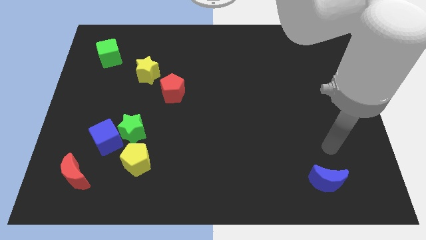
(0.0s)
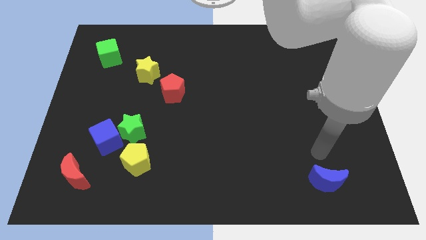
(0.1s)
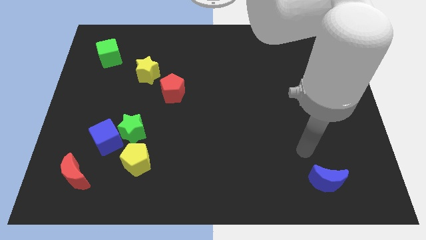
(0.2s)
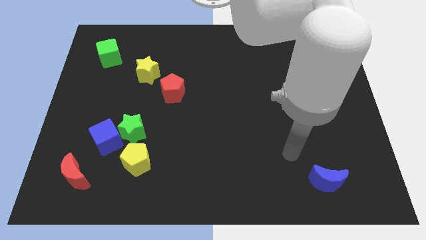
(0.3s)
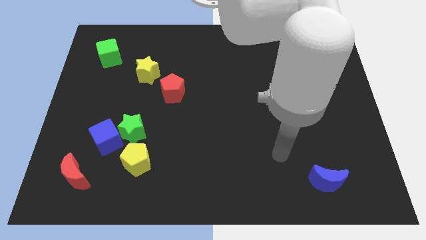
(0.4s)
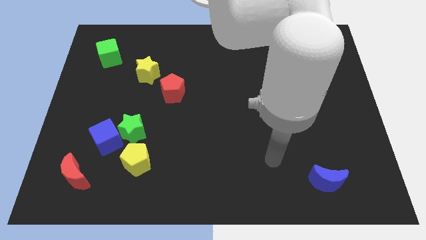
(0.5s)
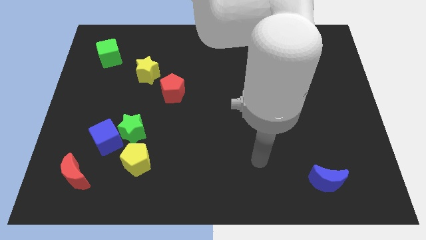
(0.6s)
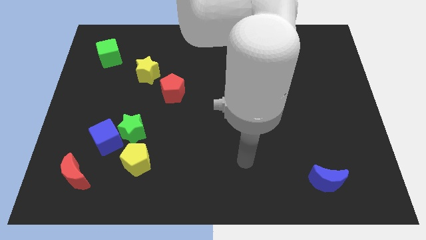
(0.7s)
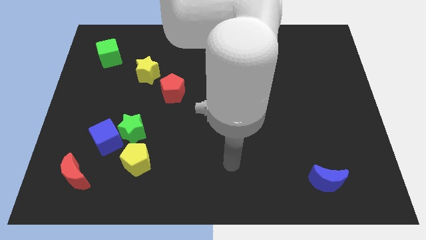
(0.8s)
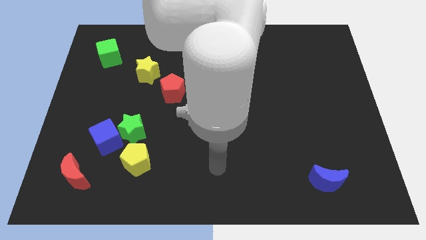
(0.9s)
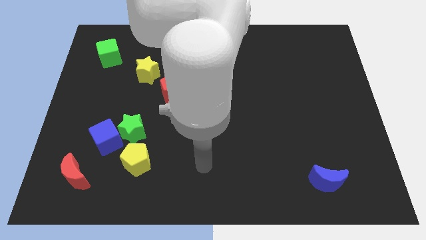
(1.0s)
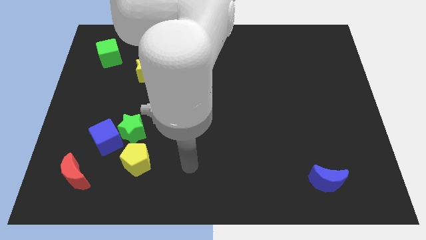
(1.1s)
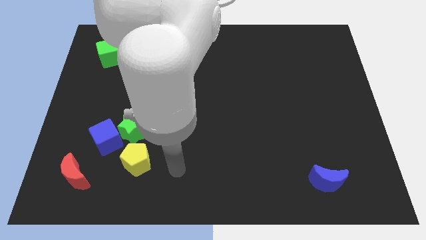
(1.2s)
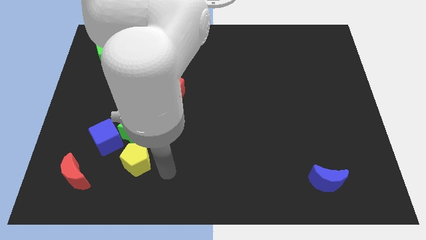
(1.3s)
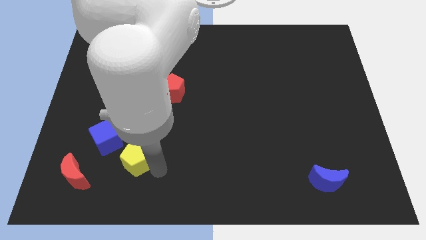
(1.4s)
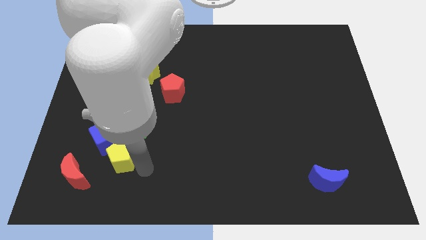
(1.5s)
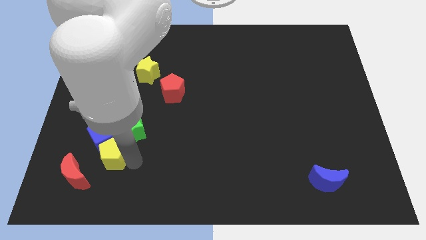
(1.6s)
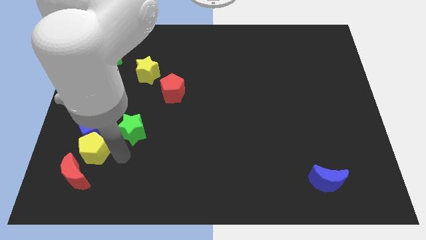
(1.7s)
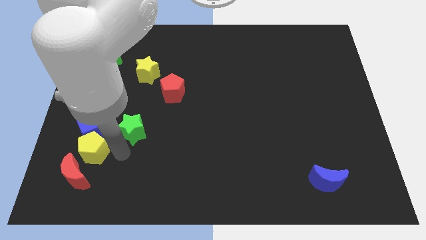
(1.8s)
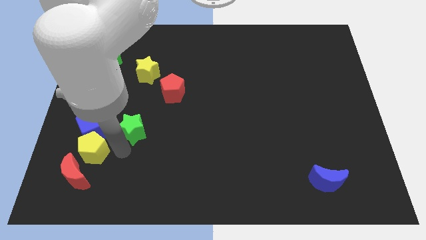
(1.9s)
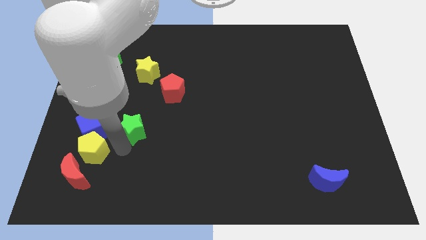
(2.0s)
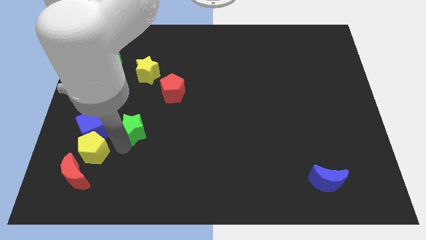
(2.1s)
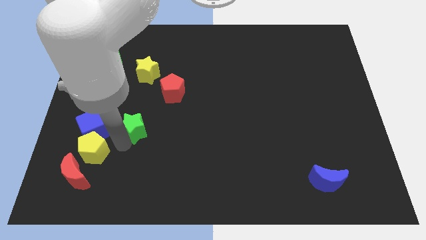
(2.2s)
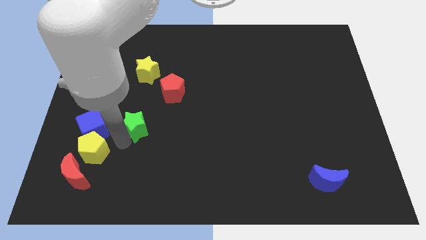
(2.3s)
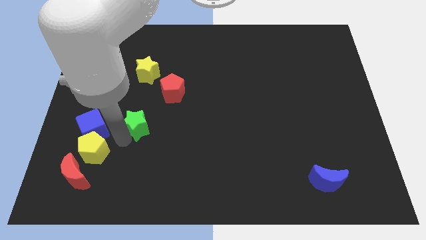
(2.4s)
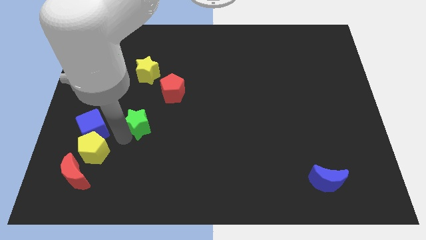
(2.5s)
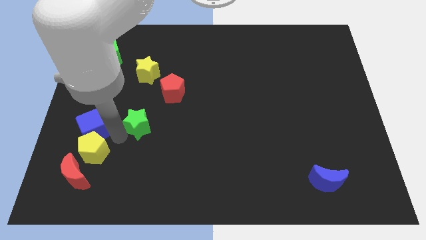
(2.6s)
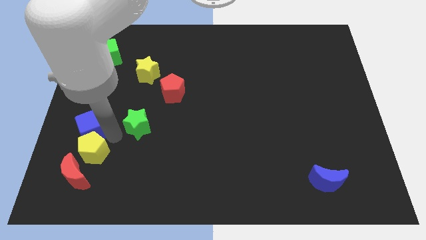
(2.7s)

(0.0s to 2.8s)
separate the green star from the blue cube and yellow pentagon

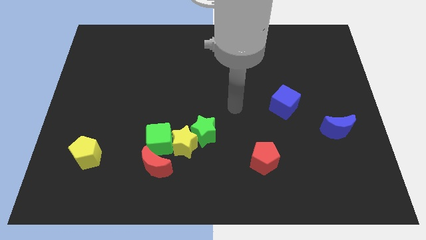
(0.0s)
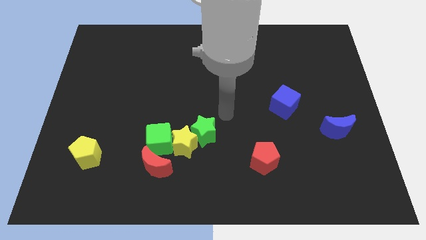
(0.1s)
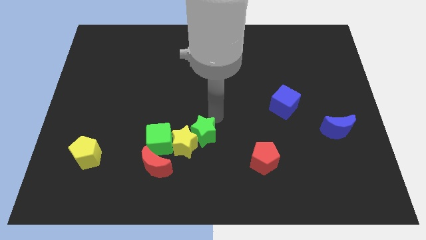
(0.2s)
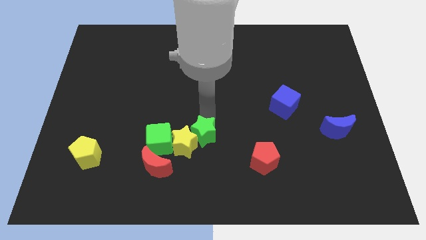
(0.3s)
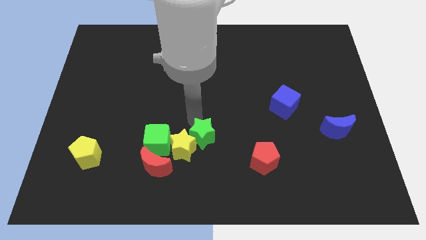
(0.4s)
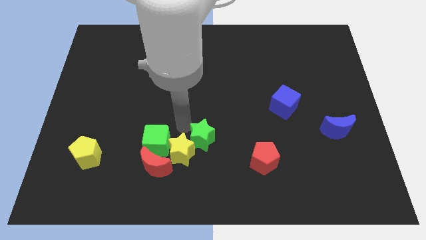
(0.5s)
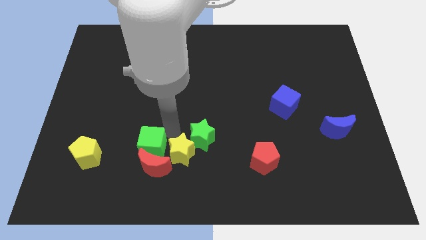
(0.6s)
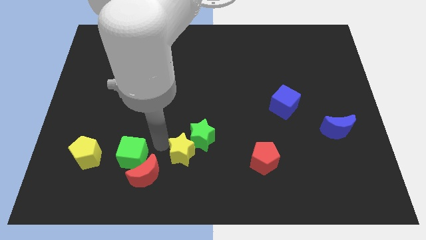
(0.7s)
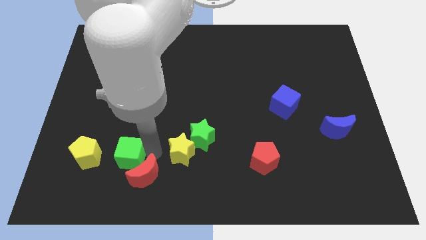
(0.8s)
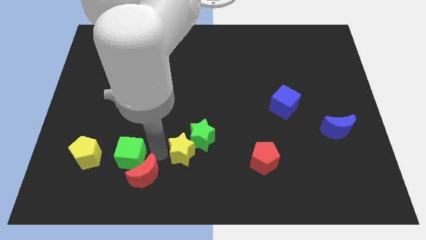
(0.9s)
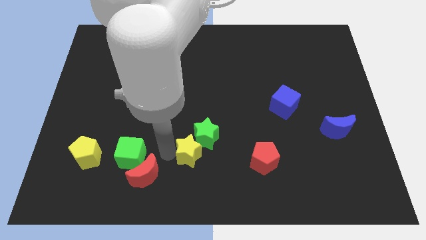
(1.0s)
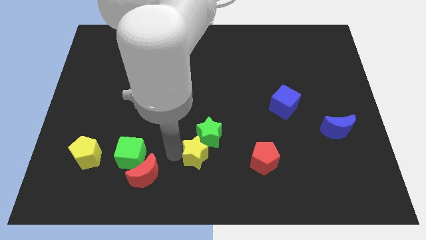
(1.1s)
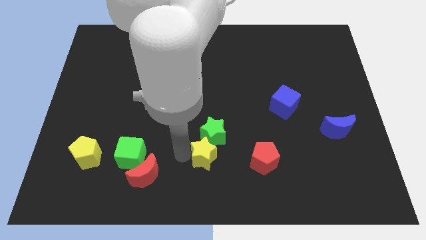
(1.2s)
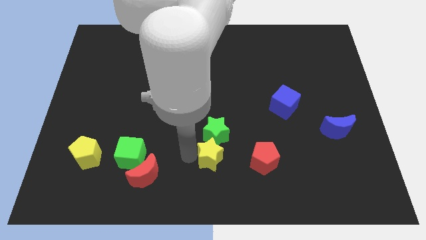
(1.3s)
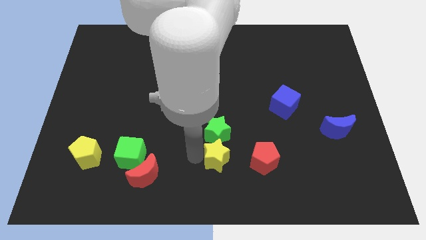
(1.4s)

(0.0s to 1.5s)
move the yellow star away from the clump

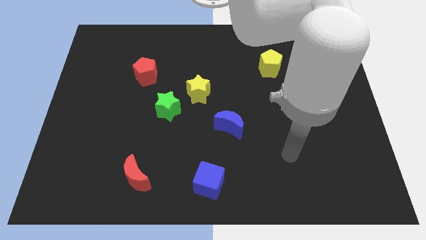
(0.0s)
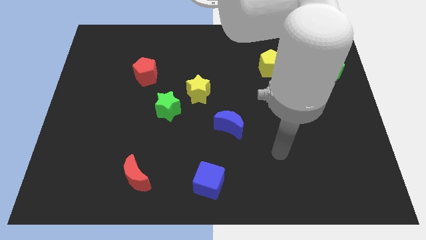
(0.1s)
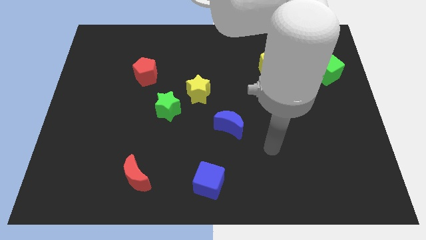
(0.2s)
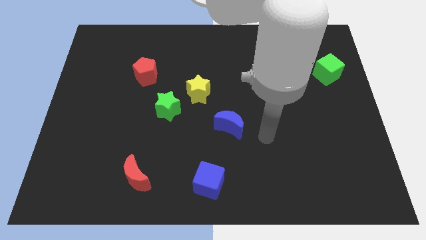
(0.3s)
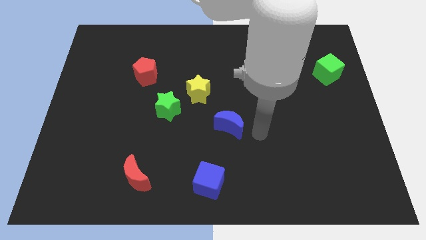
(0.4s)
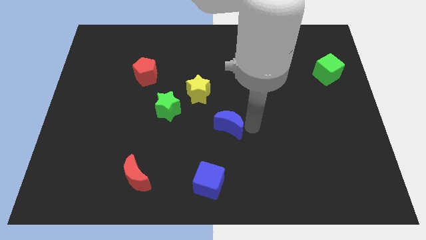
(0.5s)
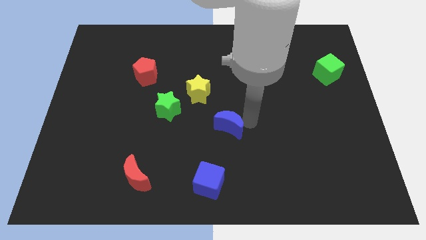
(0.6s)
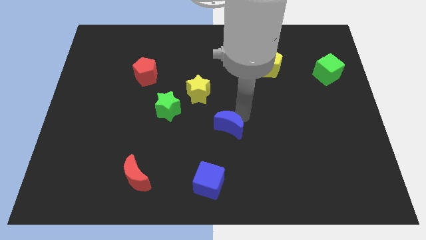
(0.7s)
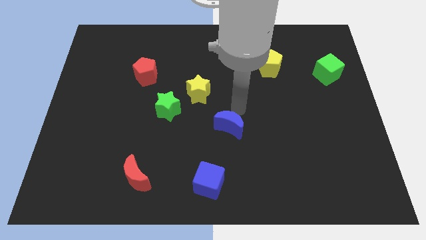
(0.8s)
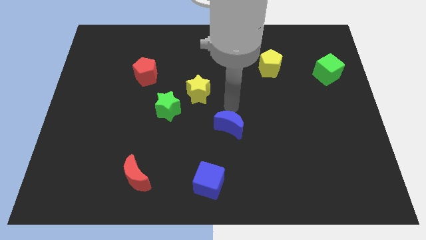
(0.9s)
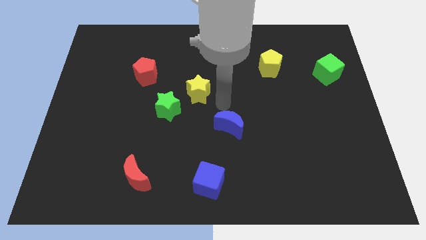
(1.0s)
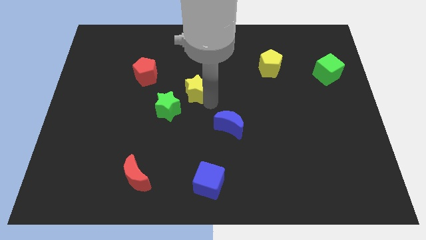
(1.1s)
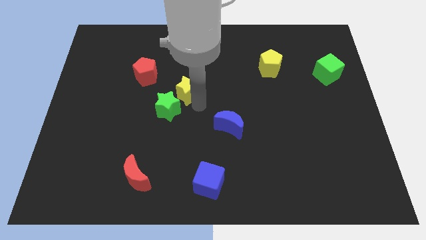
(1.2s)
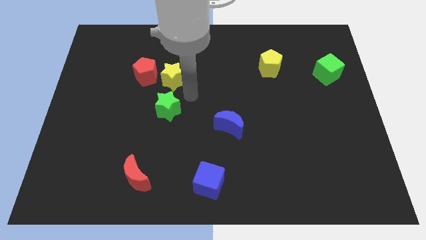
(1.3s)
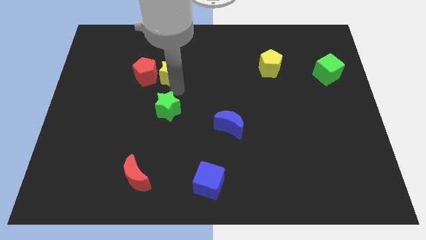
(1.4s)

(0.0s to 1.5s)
move the green star away from the yellow star

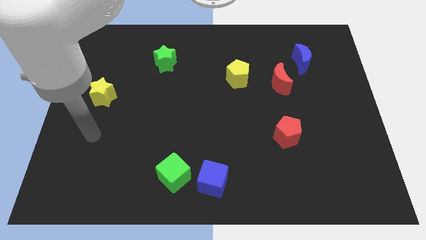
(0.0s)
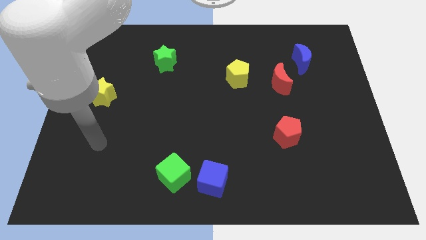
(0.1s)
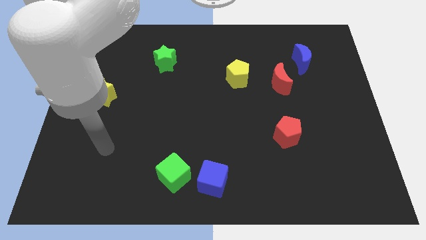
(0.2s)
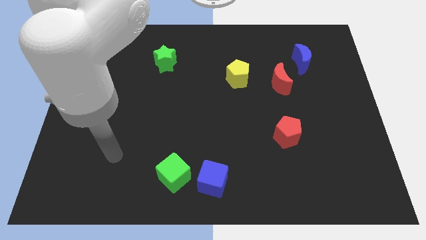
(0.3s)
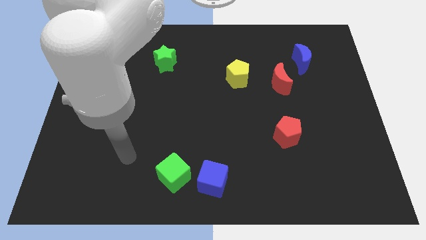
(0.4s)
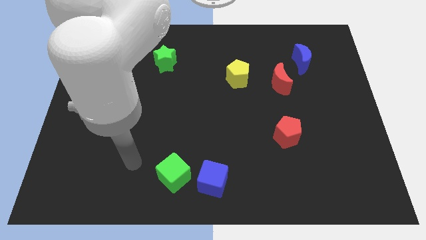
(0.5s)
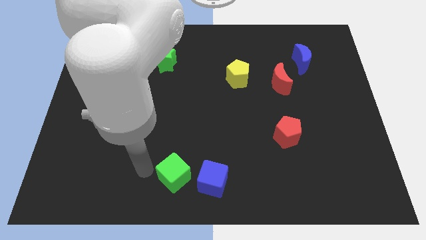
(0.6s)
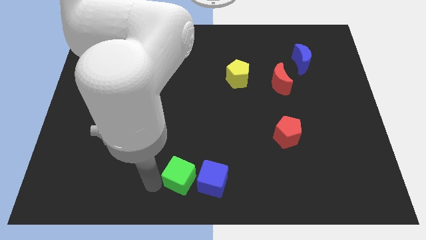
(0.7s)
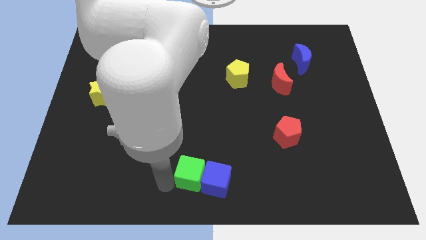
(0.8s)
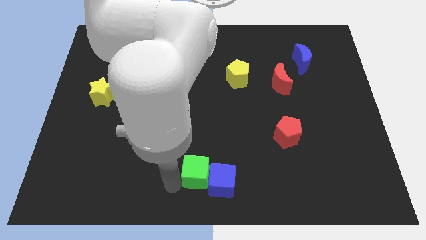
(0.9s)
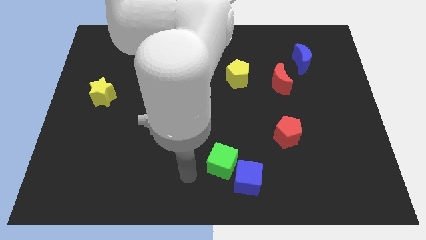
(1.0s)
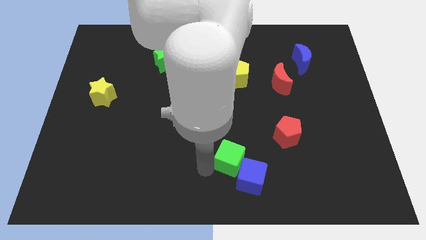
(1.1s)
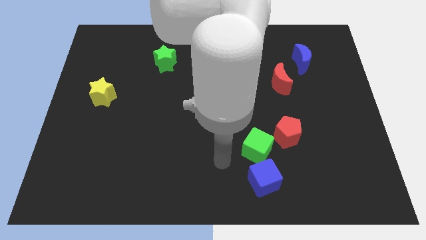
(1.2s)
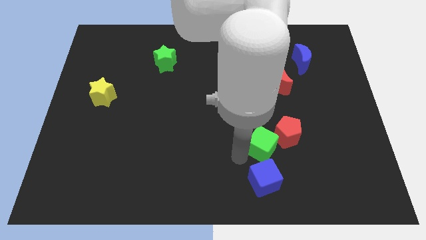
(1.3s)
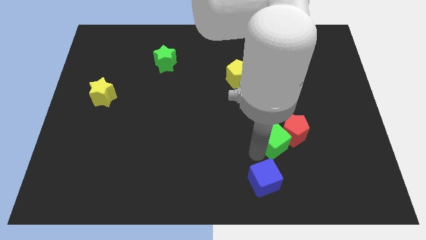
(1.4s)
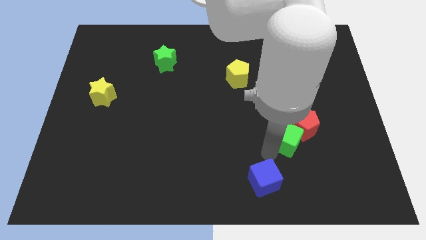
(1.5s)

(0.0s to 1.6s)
separate the blue cube from the green cube

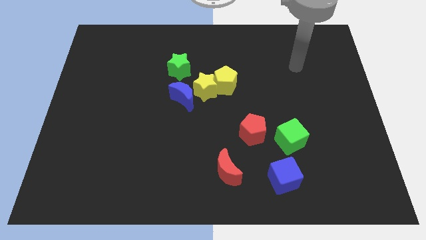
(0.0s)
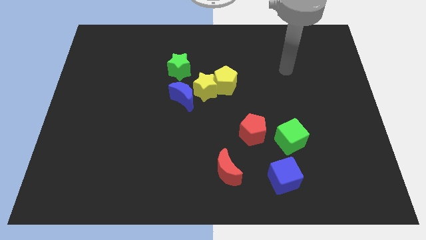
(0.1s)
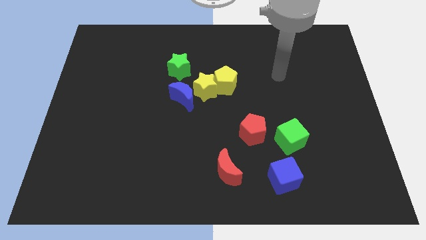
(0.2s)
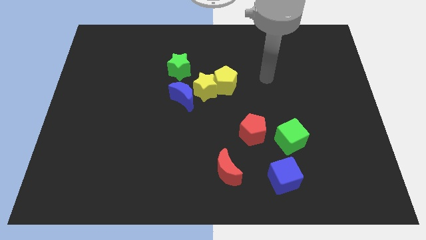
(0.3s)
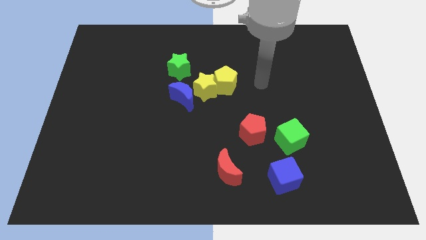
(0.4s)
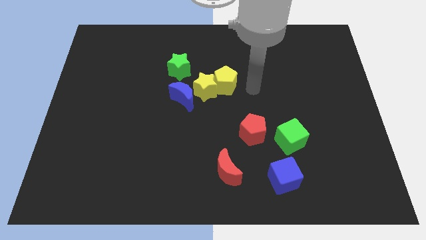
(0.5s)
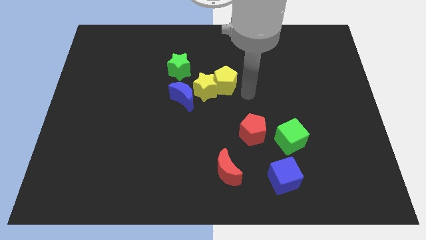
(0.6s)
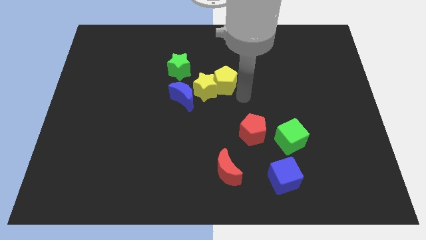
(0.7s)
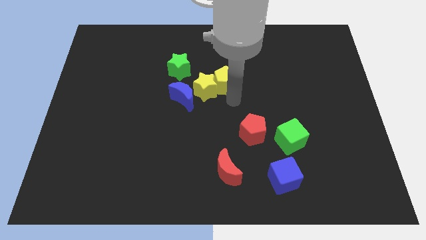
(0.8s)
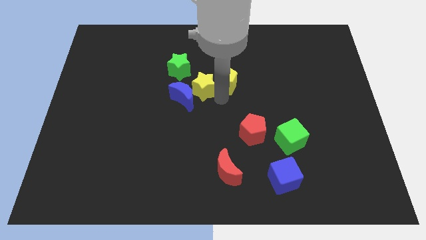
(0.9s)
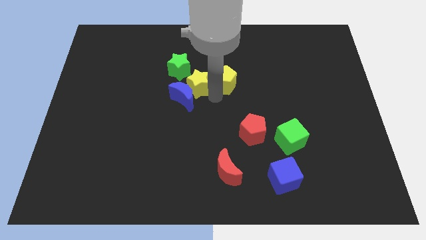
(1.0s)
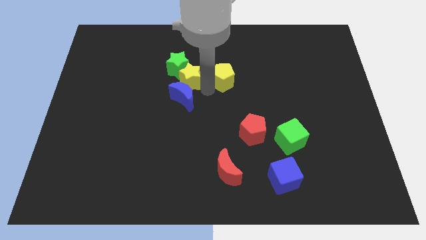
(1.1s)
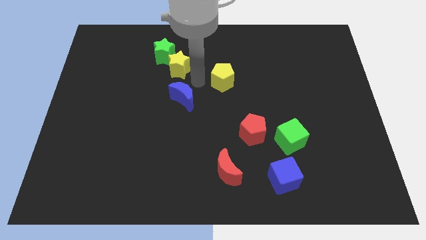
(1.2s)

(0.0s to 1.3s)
pull the yellow pentagon apart from the yellow star

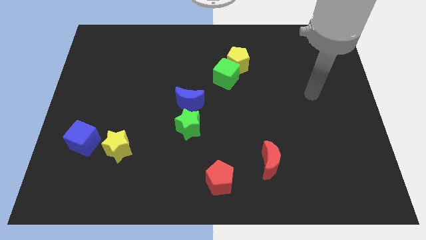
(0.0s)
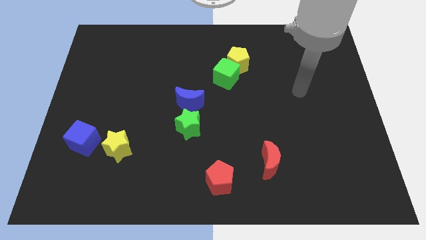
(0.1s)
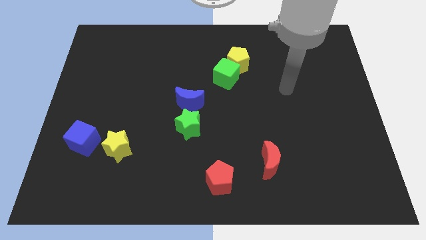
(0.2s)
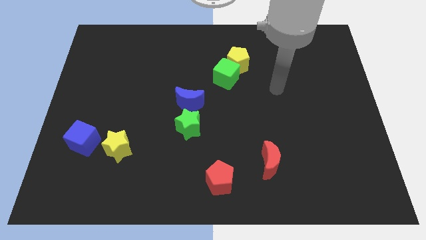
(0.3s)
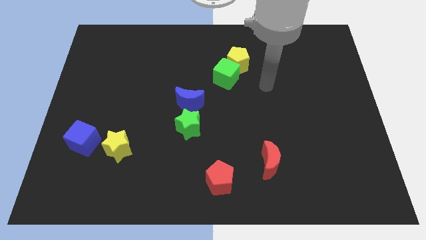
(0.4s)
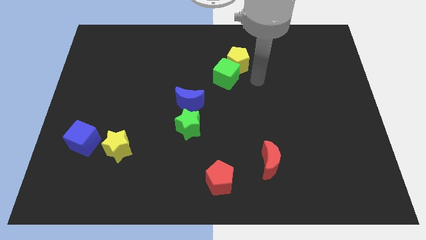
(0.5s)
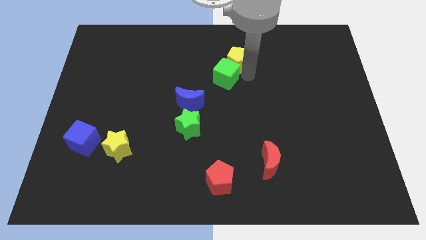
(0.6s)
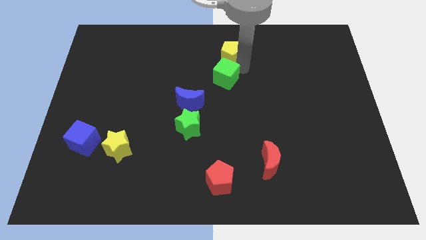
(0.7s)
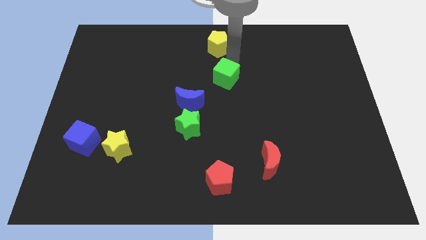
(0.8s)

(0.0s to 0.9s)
move the green cube away from the yellow pentagon
